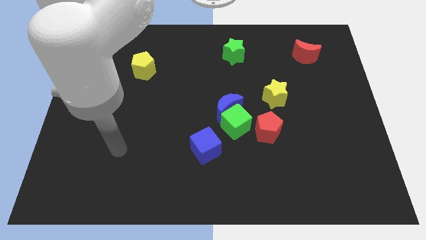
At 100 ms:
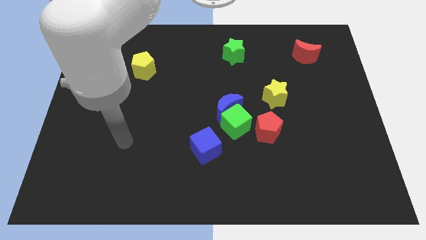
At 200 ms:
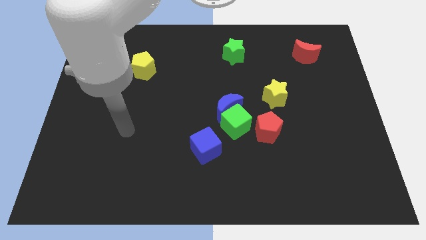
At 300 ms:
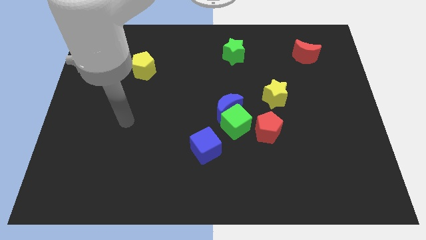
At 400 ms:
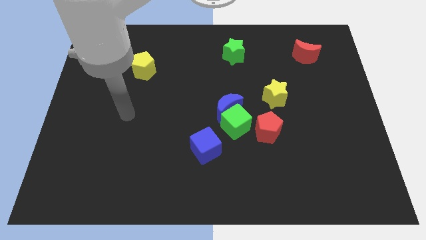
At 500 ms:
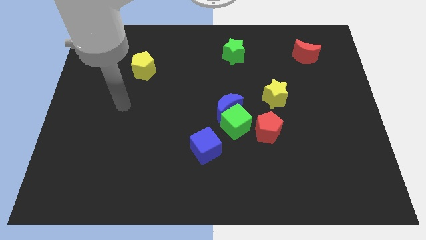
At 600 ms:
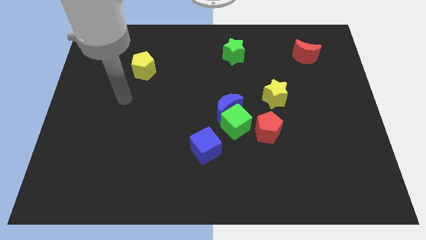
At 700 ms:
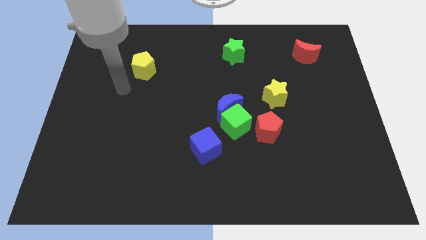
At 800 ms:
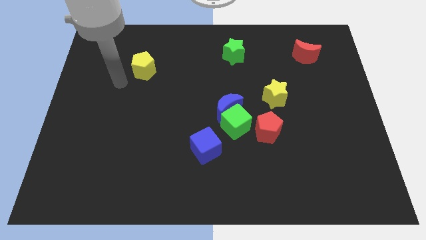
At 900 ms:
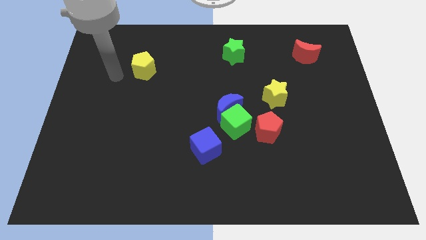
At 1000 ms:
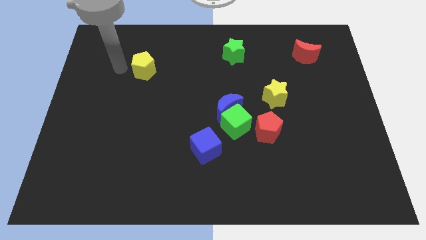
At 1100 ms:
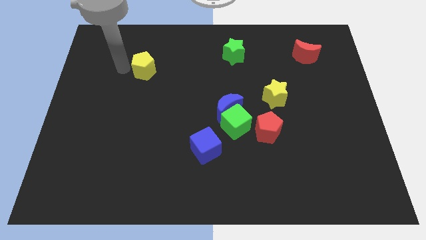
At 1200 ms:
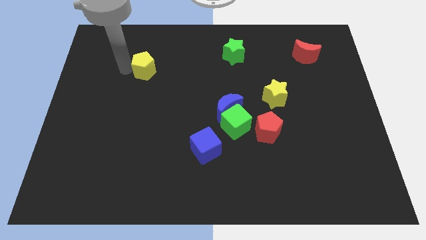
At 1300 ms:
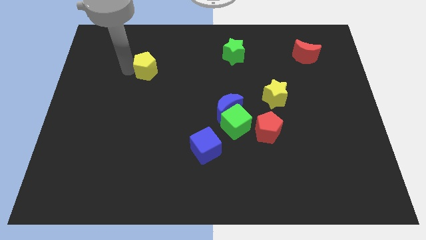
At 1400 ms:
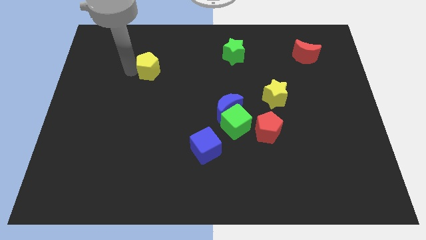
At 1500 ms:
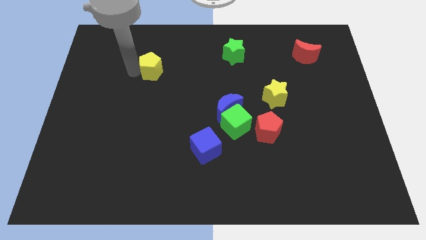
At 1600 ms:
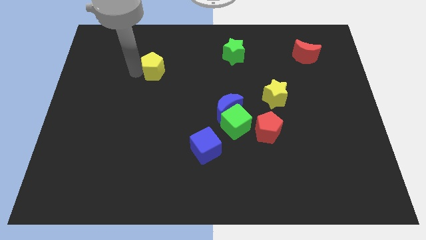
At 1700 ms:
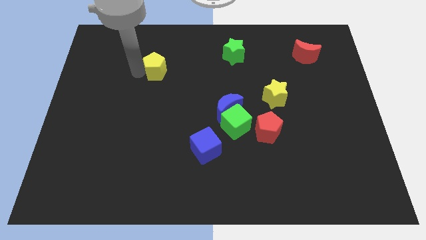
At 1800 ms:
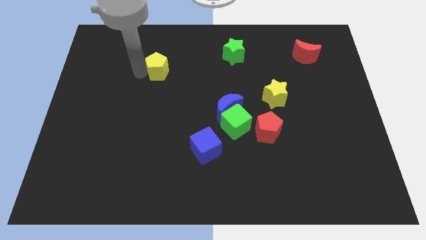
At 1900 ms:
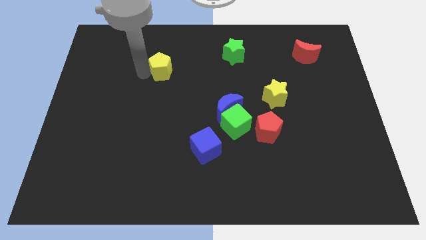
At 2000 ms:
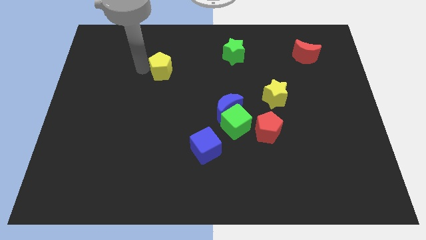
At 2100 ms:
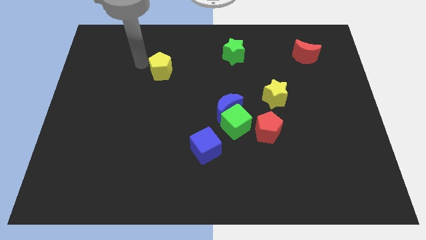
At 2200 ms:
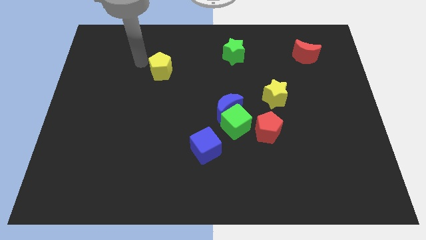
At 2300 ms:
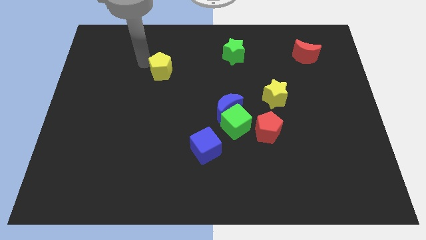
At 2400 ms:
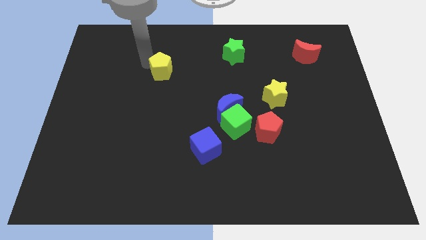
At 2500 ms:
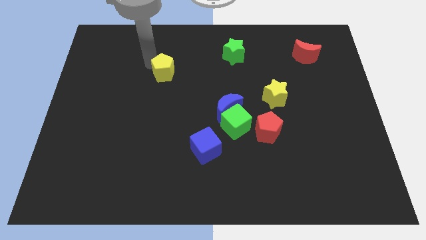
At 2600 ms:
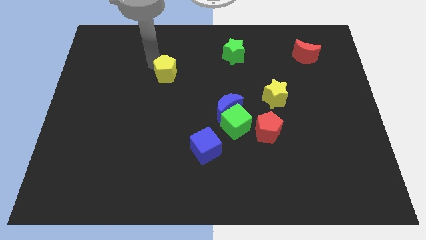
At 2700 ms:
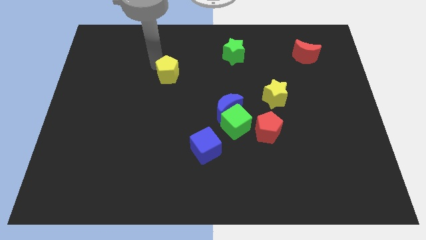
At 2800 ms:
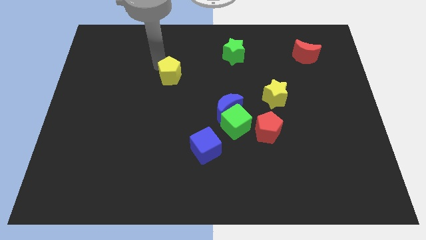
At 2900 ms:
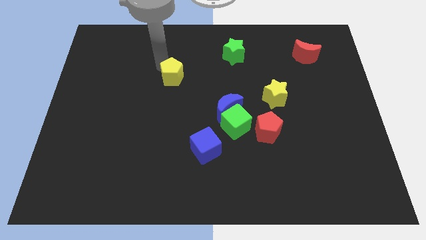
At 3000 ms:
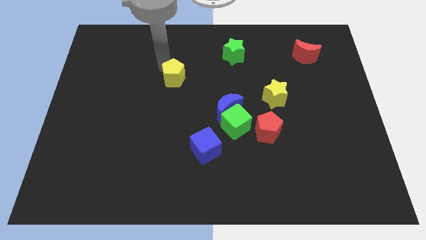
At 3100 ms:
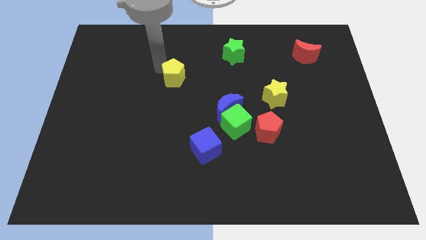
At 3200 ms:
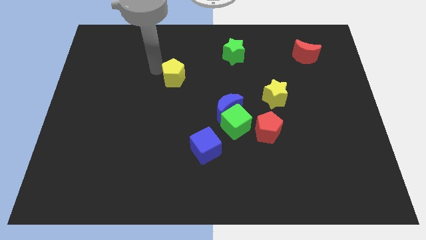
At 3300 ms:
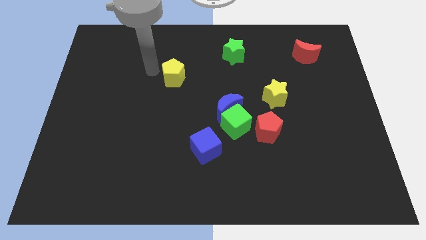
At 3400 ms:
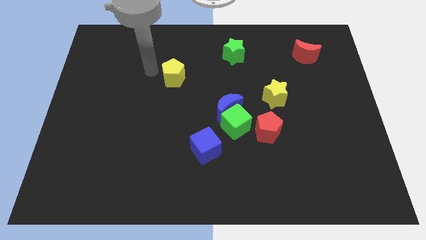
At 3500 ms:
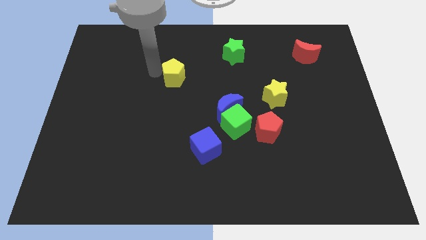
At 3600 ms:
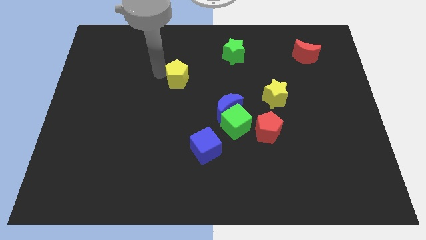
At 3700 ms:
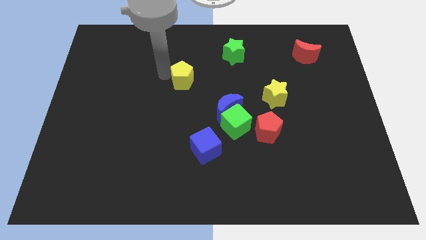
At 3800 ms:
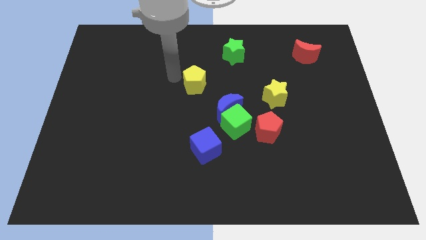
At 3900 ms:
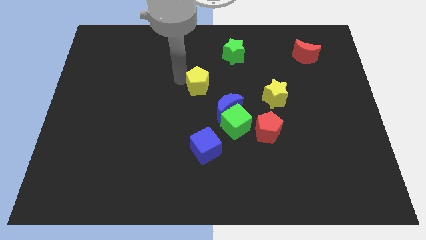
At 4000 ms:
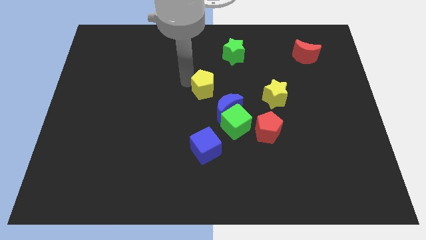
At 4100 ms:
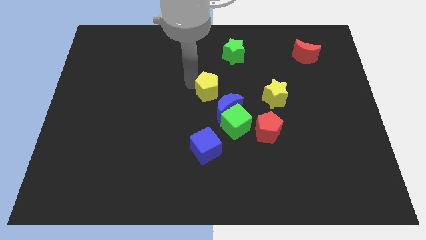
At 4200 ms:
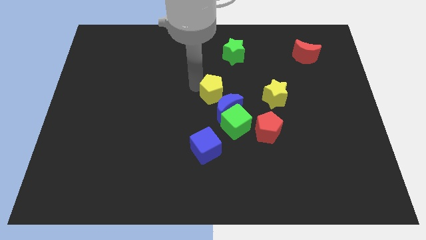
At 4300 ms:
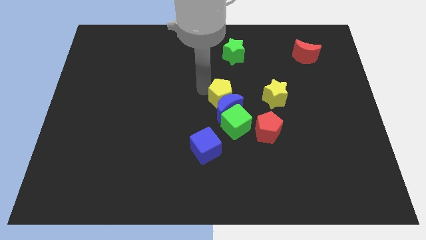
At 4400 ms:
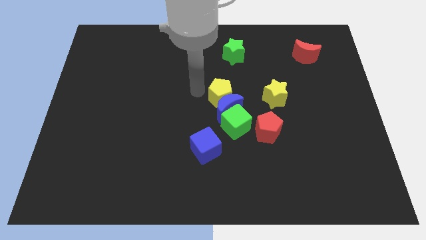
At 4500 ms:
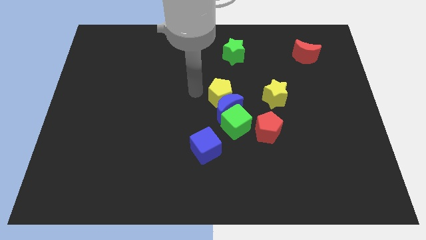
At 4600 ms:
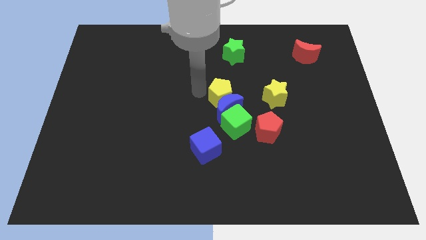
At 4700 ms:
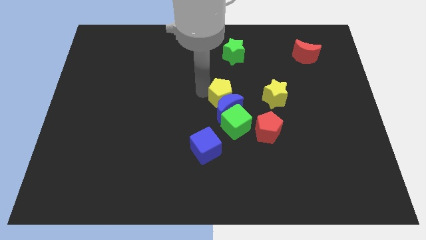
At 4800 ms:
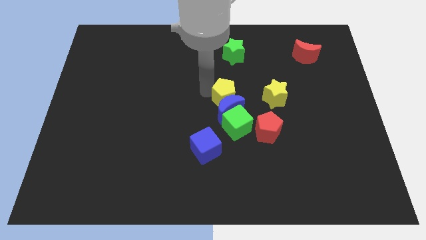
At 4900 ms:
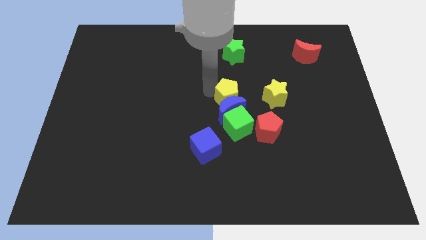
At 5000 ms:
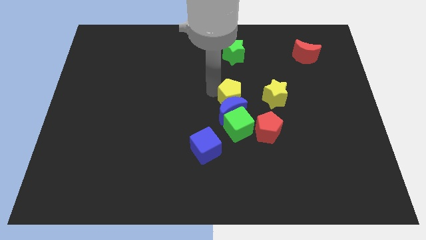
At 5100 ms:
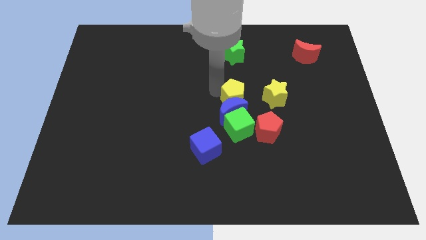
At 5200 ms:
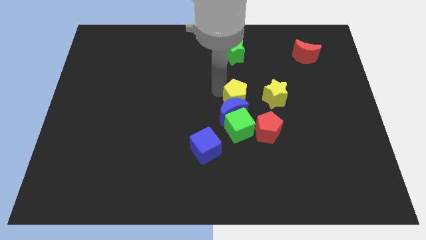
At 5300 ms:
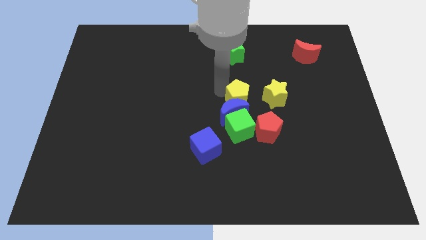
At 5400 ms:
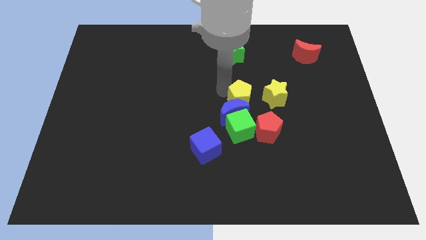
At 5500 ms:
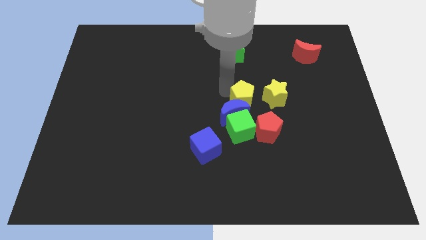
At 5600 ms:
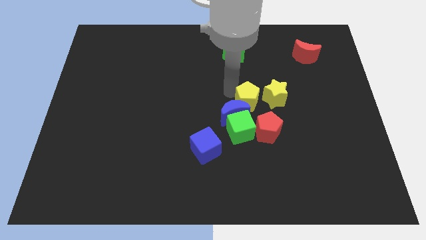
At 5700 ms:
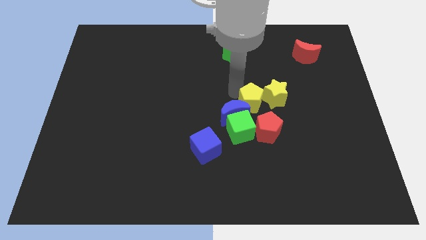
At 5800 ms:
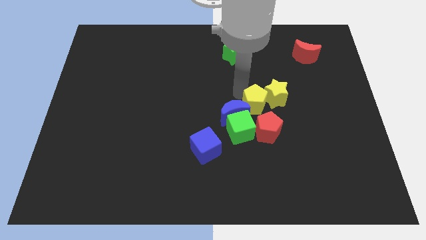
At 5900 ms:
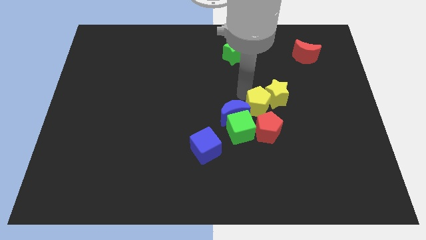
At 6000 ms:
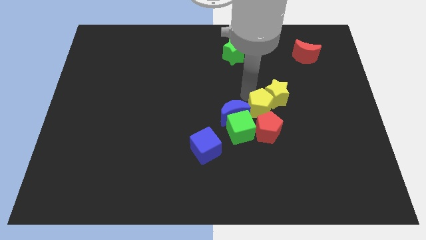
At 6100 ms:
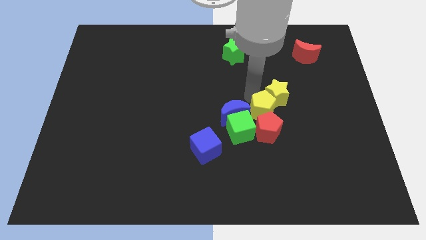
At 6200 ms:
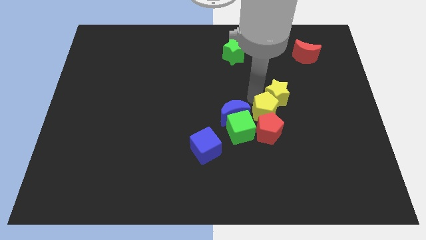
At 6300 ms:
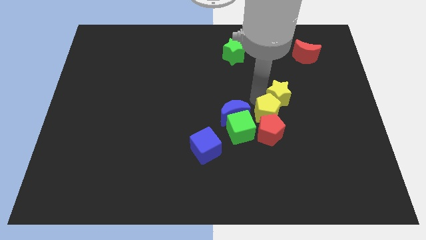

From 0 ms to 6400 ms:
move the yellow pentagon right of the green cube

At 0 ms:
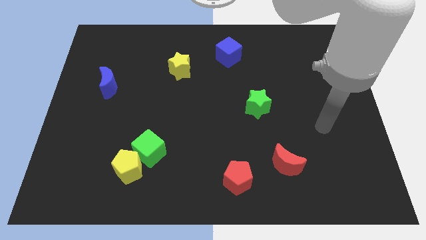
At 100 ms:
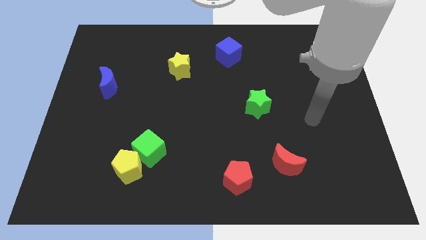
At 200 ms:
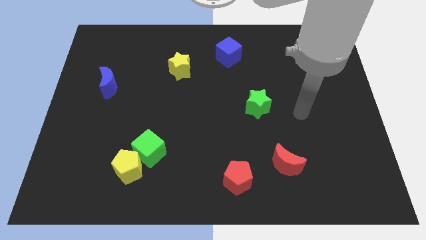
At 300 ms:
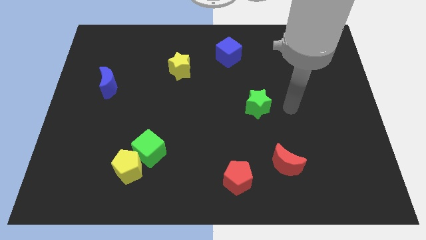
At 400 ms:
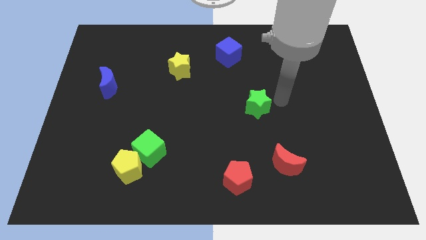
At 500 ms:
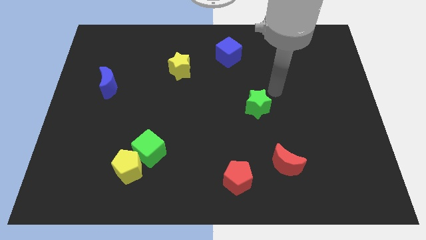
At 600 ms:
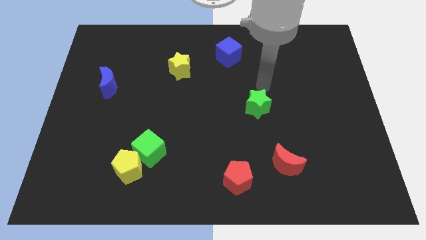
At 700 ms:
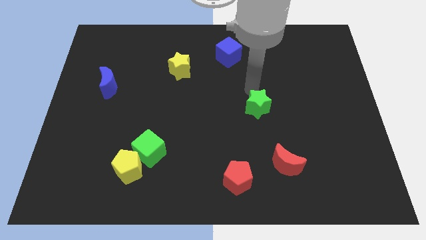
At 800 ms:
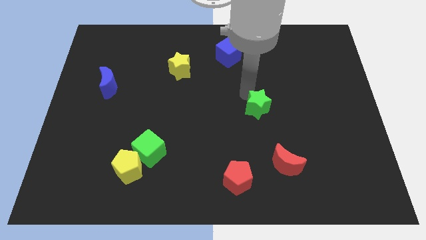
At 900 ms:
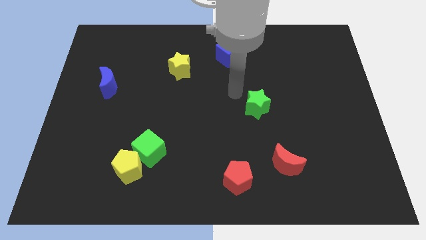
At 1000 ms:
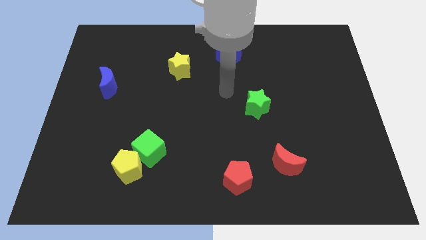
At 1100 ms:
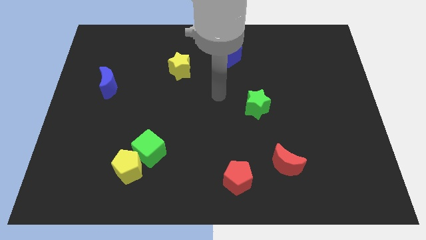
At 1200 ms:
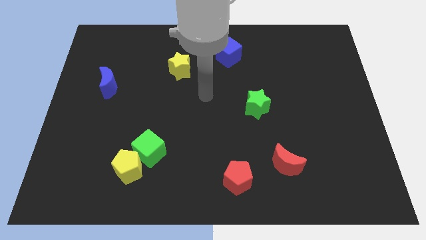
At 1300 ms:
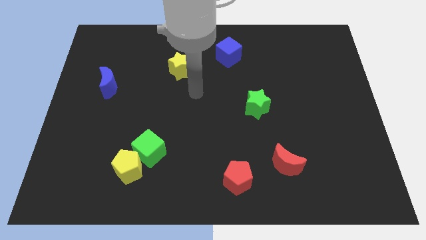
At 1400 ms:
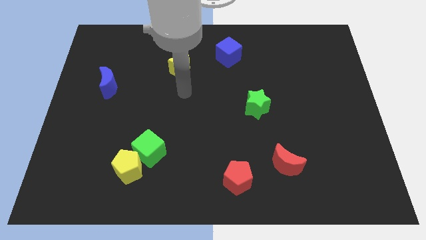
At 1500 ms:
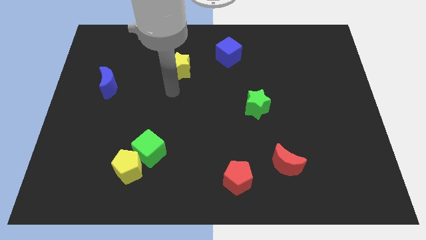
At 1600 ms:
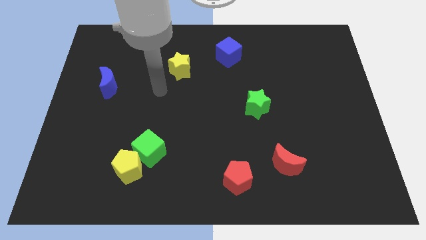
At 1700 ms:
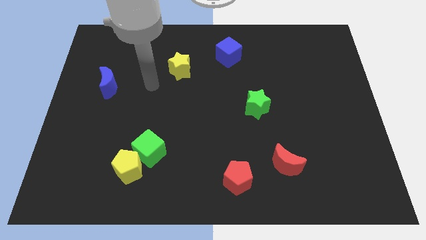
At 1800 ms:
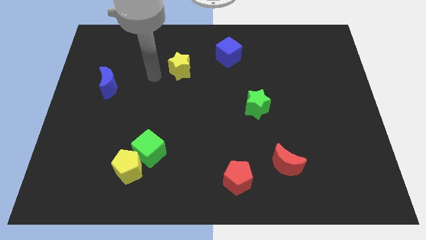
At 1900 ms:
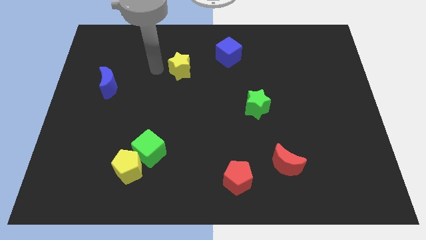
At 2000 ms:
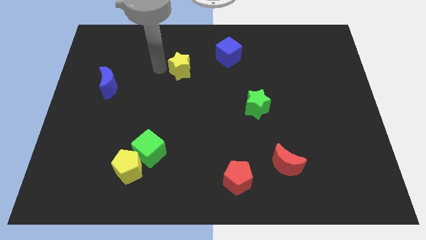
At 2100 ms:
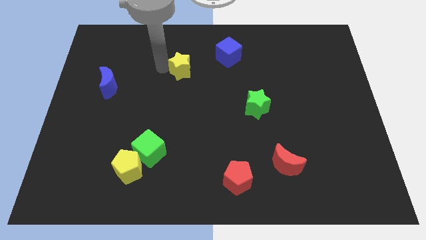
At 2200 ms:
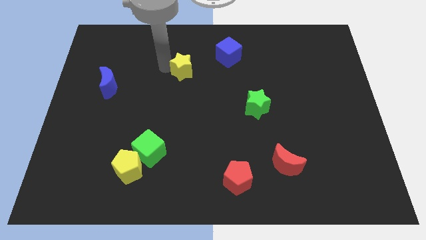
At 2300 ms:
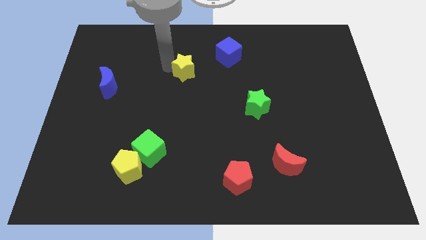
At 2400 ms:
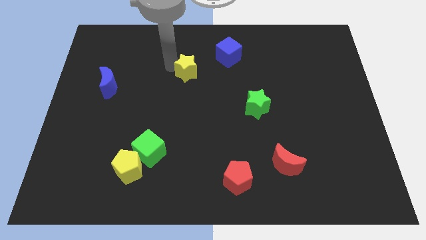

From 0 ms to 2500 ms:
move the yellow star diagonally down and to the left of the blue cube
